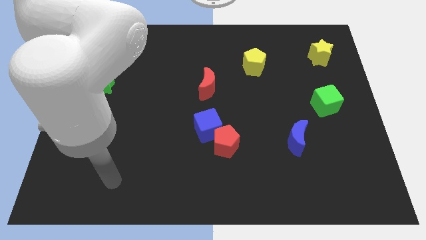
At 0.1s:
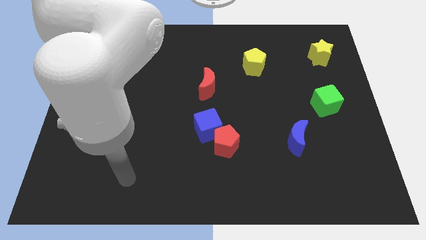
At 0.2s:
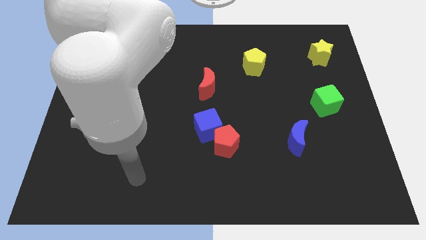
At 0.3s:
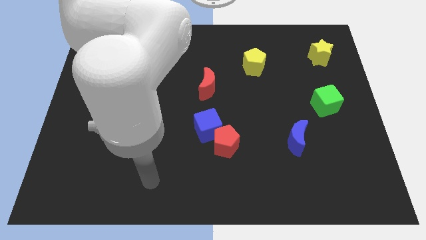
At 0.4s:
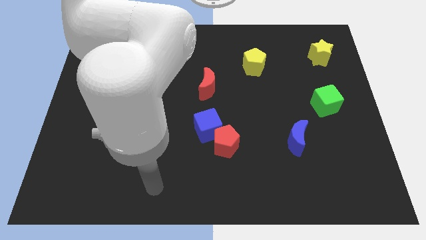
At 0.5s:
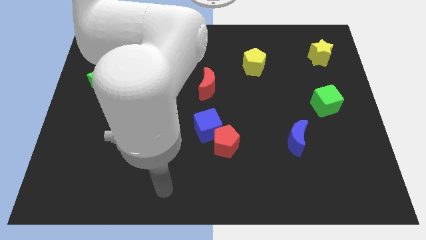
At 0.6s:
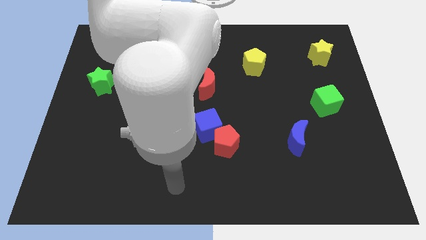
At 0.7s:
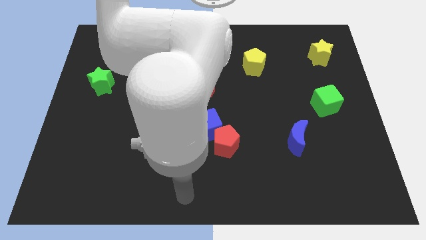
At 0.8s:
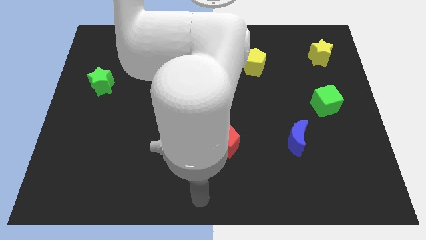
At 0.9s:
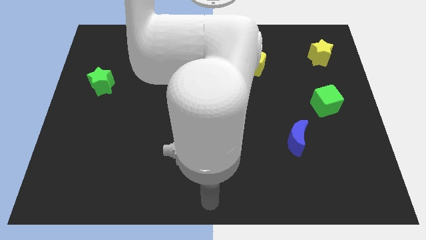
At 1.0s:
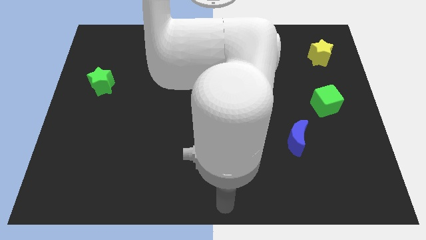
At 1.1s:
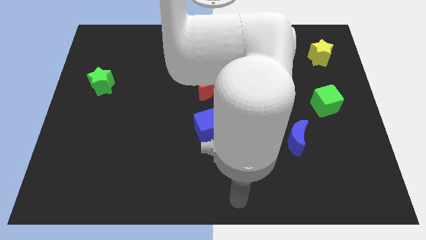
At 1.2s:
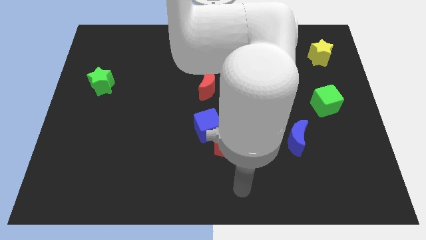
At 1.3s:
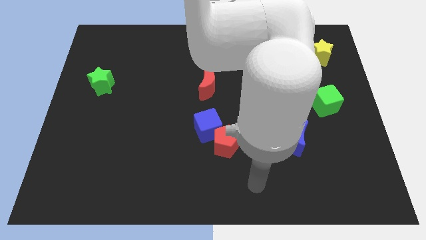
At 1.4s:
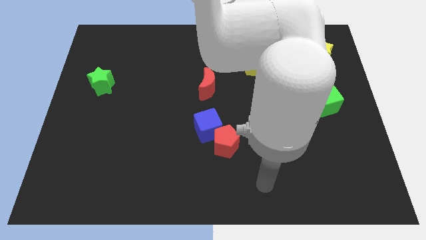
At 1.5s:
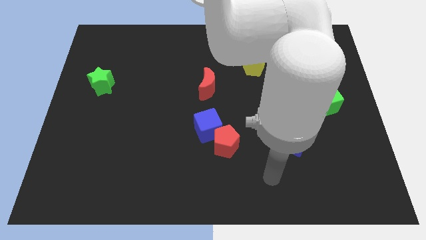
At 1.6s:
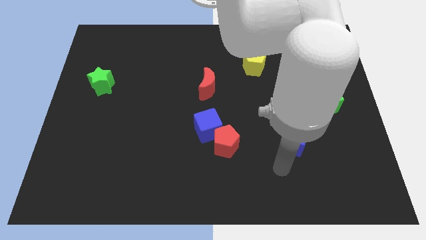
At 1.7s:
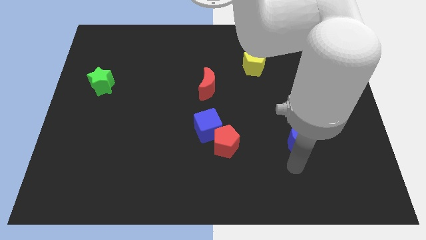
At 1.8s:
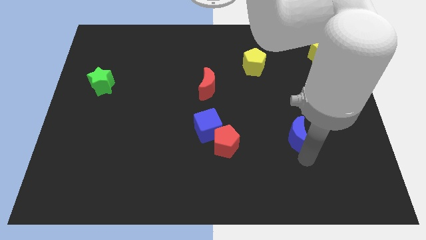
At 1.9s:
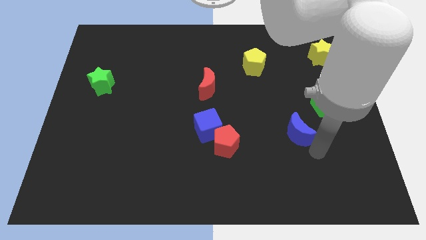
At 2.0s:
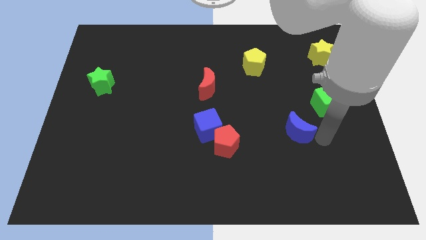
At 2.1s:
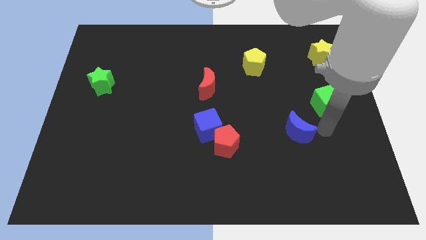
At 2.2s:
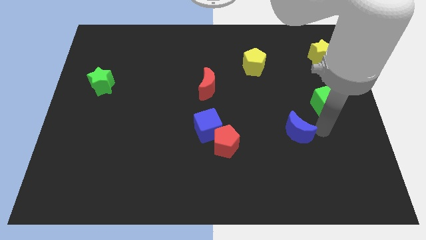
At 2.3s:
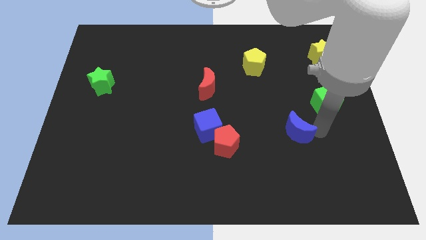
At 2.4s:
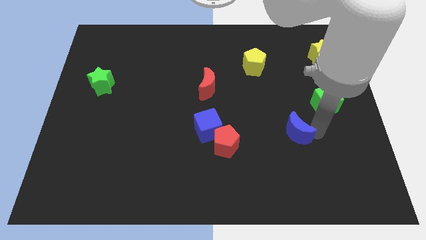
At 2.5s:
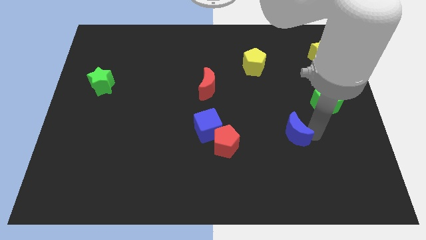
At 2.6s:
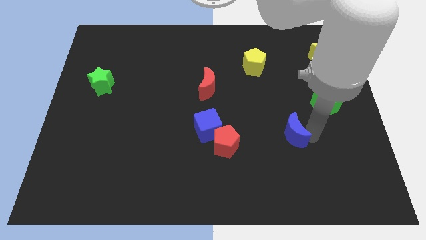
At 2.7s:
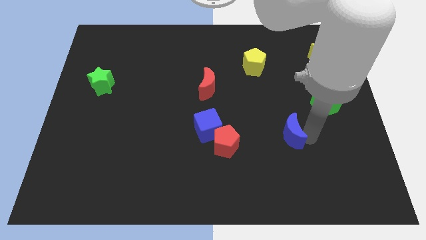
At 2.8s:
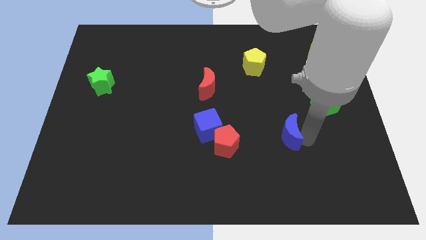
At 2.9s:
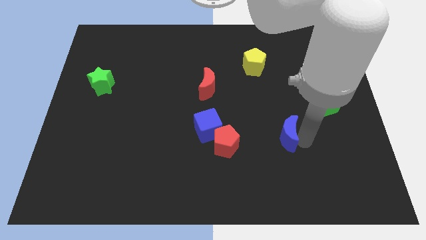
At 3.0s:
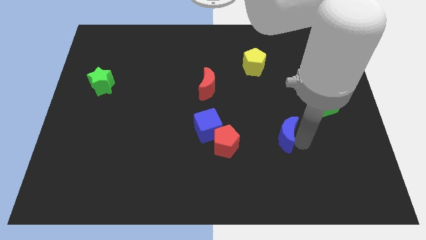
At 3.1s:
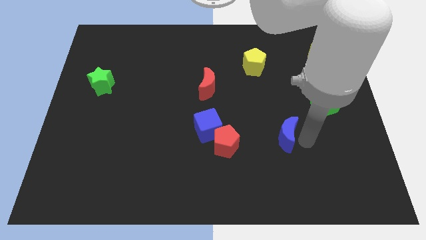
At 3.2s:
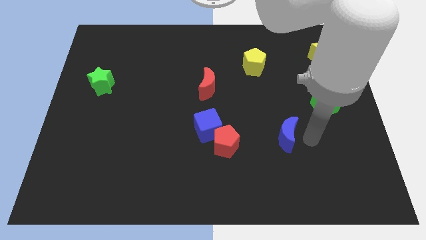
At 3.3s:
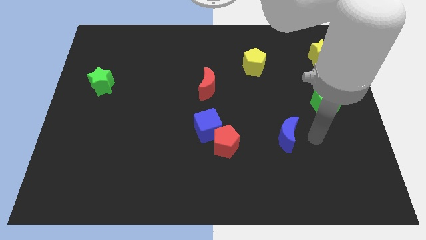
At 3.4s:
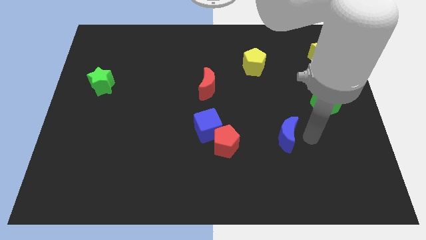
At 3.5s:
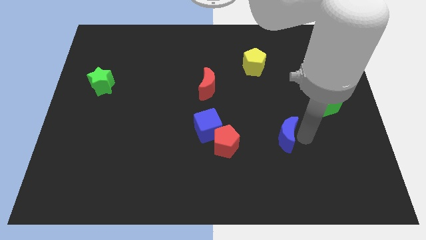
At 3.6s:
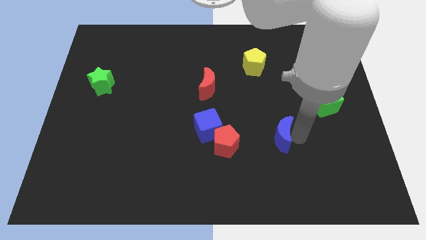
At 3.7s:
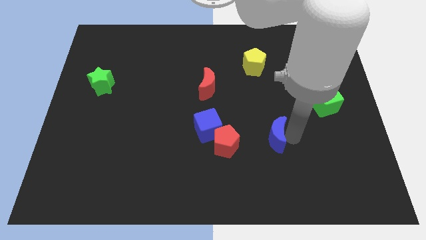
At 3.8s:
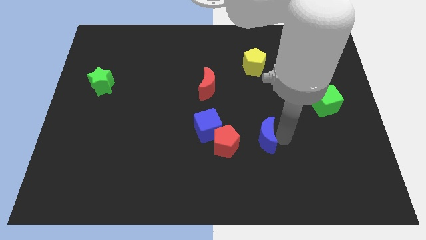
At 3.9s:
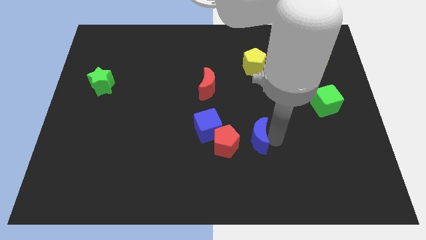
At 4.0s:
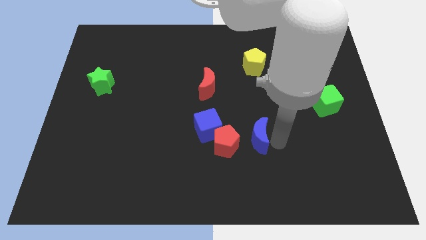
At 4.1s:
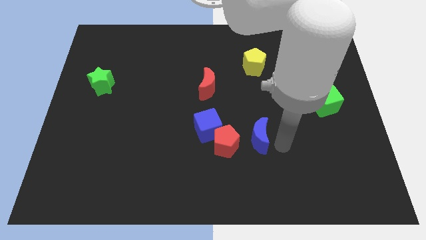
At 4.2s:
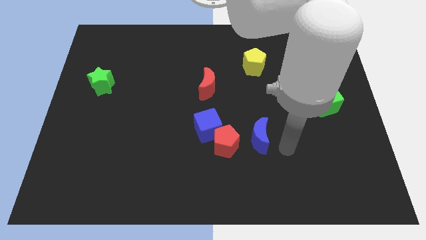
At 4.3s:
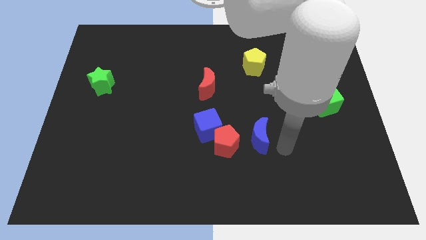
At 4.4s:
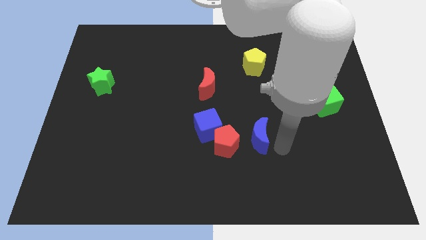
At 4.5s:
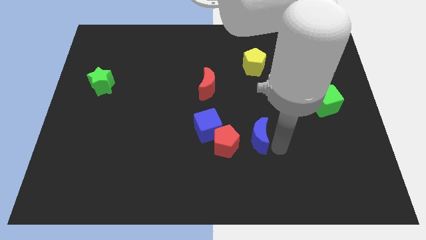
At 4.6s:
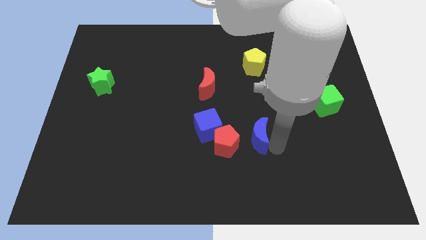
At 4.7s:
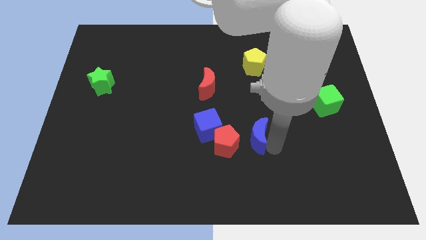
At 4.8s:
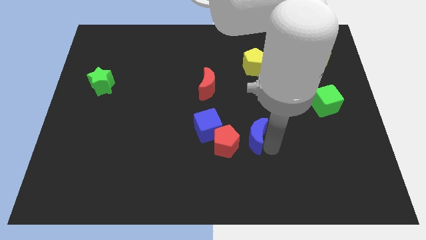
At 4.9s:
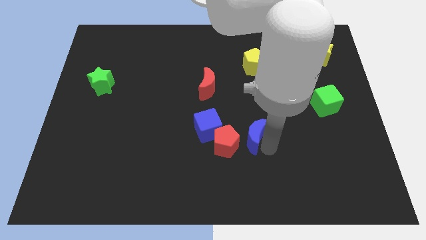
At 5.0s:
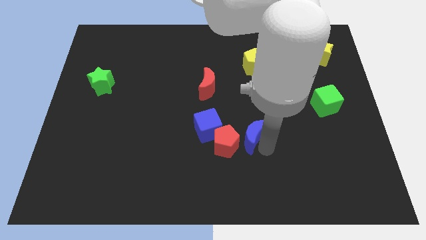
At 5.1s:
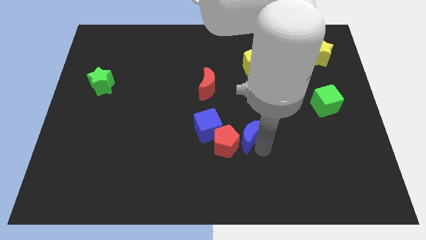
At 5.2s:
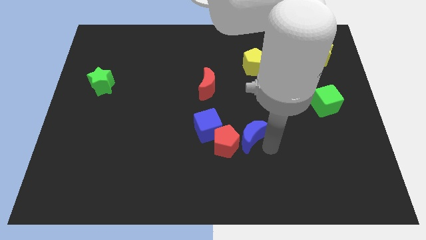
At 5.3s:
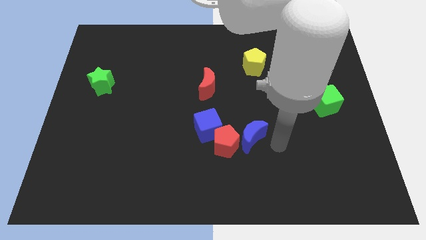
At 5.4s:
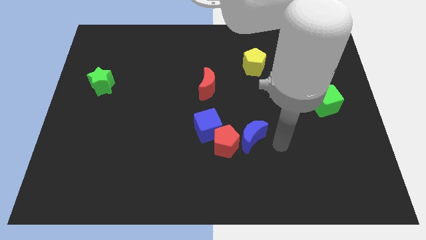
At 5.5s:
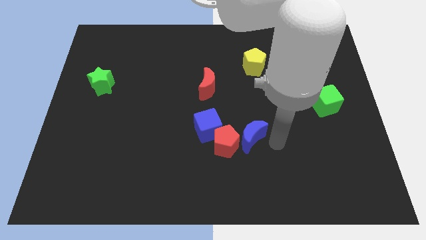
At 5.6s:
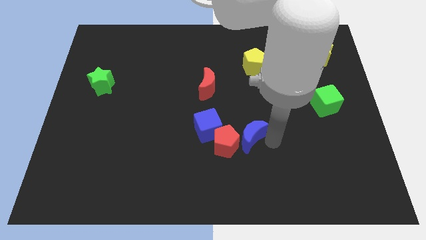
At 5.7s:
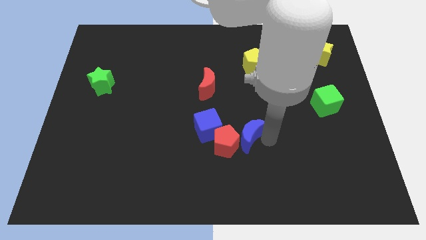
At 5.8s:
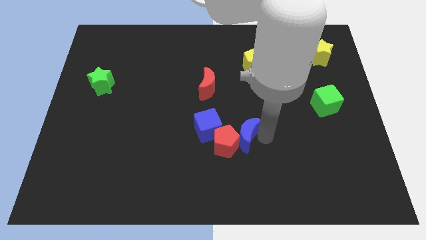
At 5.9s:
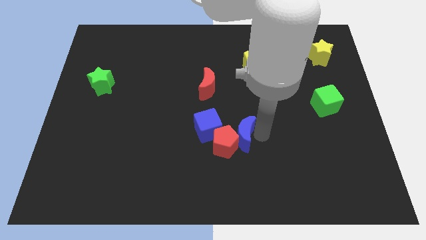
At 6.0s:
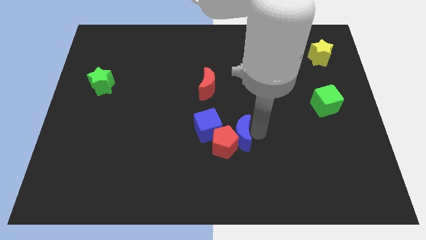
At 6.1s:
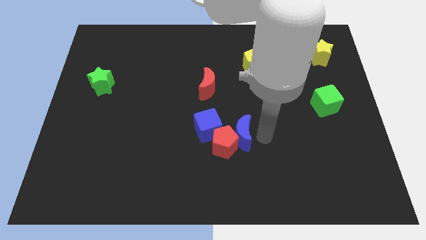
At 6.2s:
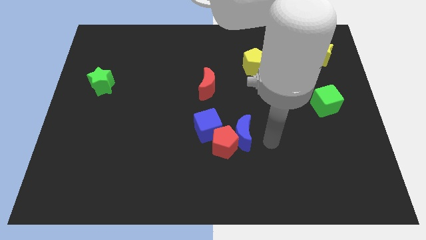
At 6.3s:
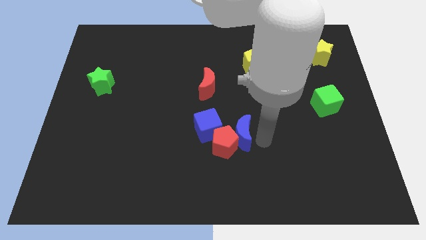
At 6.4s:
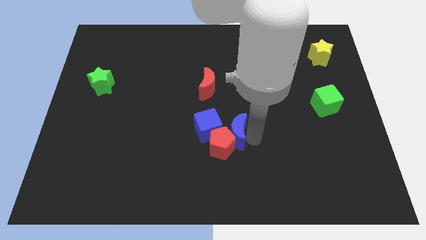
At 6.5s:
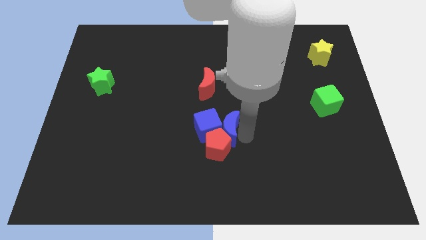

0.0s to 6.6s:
move the blue moon next to the blue cube
